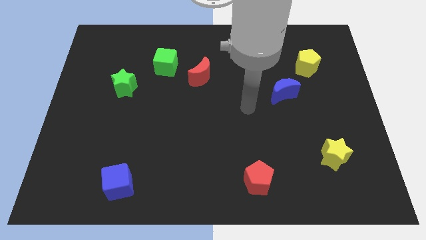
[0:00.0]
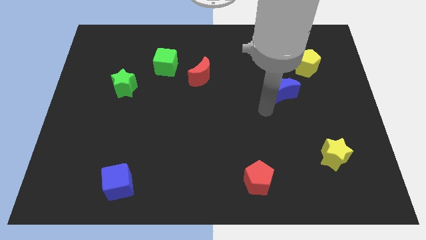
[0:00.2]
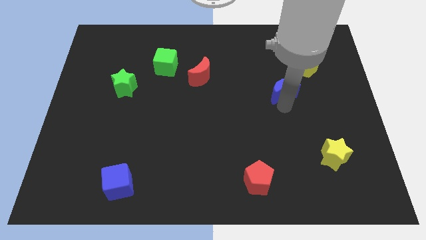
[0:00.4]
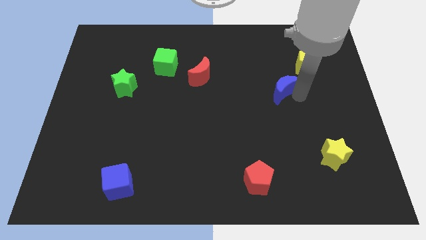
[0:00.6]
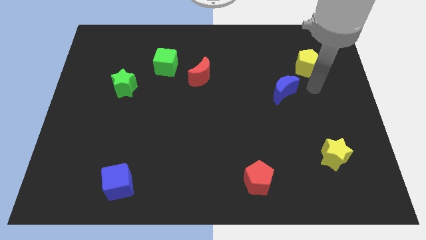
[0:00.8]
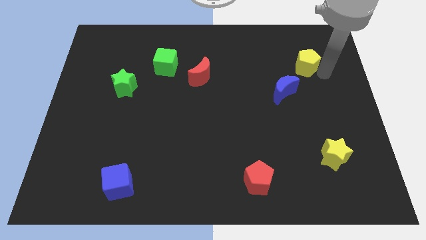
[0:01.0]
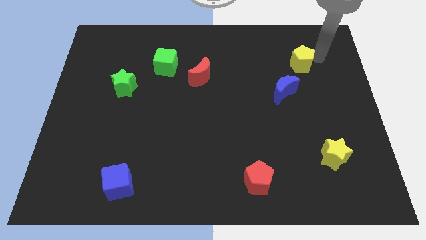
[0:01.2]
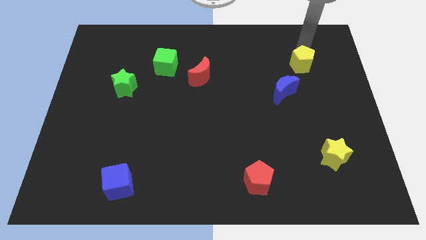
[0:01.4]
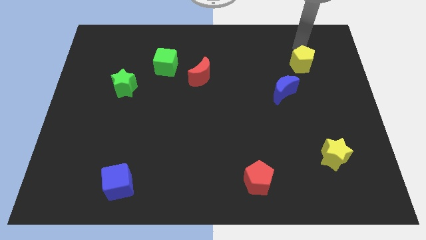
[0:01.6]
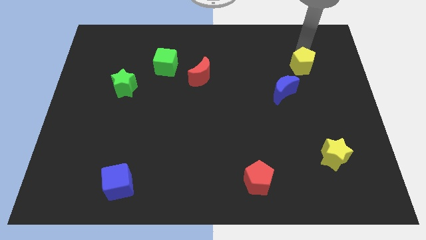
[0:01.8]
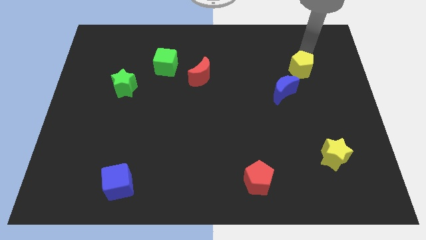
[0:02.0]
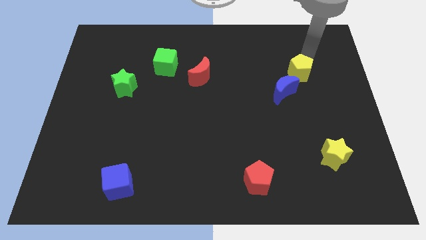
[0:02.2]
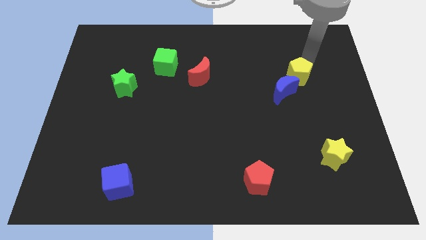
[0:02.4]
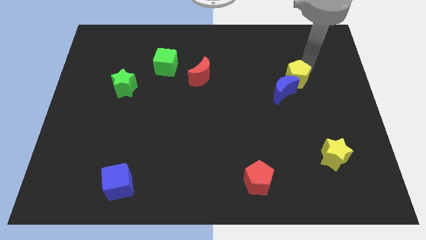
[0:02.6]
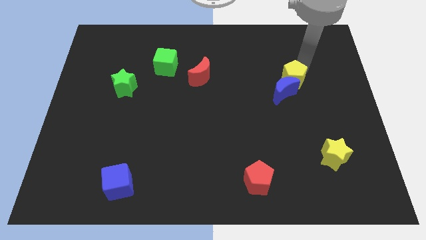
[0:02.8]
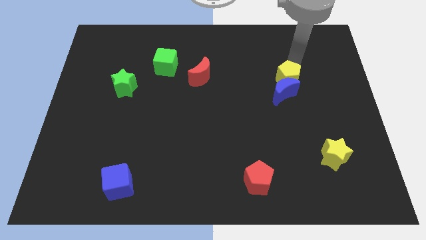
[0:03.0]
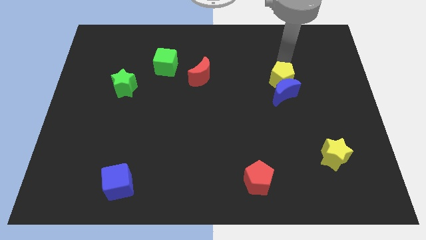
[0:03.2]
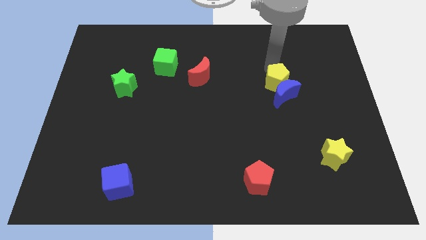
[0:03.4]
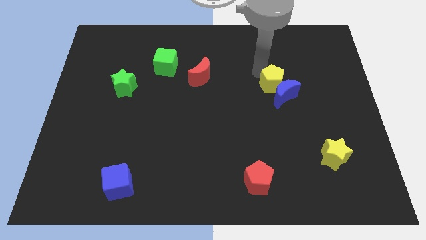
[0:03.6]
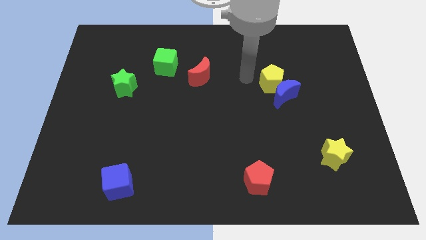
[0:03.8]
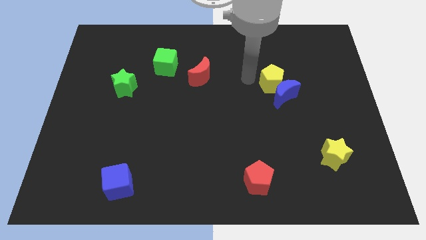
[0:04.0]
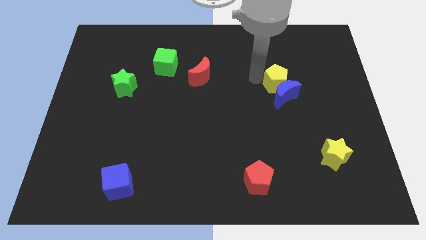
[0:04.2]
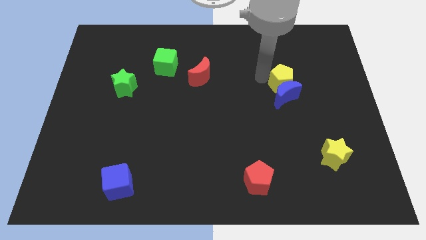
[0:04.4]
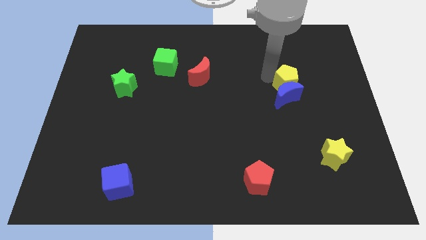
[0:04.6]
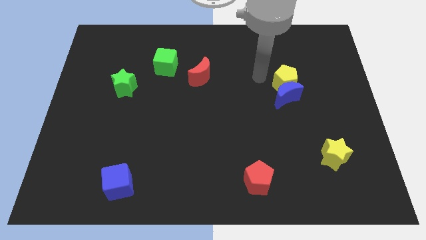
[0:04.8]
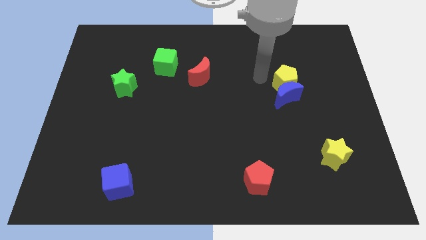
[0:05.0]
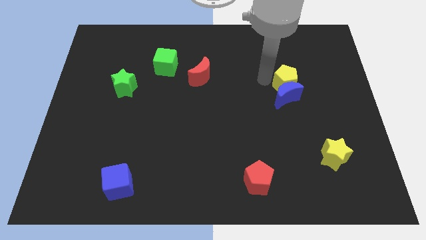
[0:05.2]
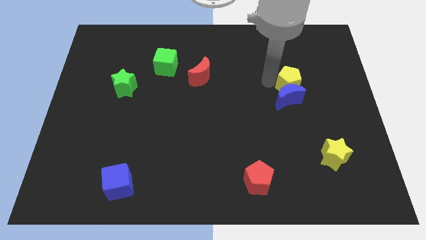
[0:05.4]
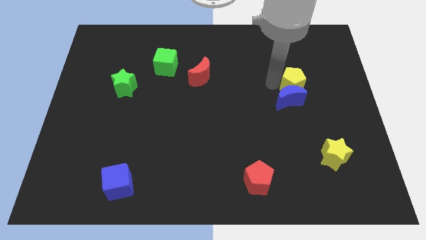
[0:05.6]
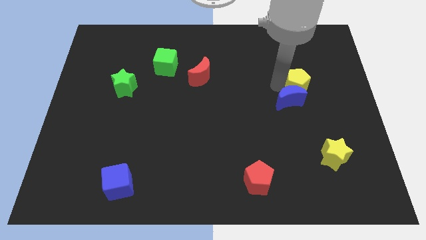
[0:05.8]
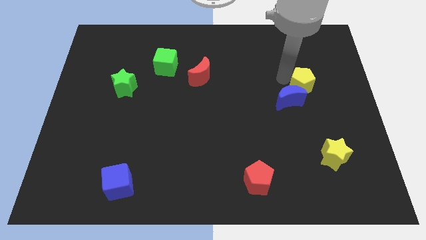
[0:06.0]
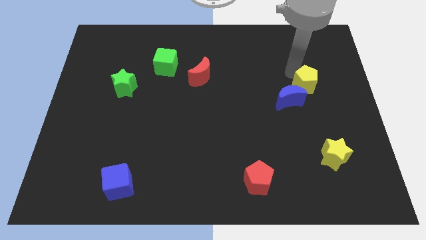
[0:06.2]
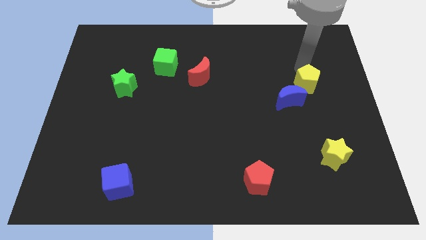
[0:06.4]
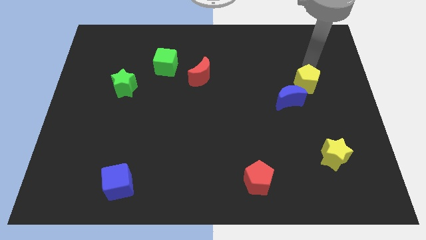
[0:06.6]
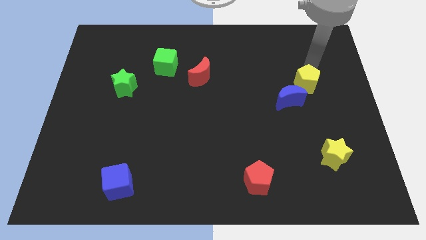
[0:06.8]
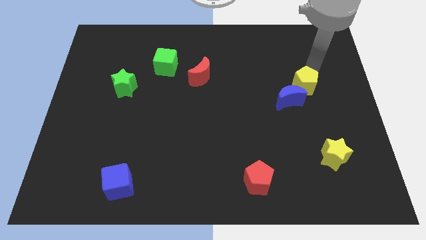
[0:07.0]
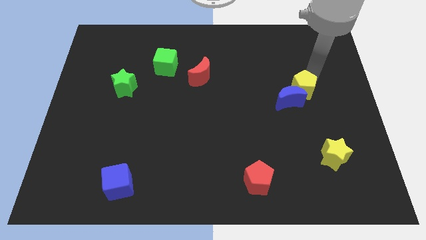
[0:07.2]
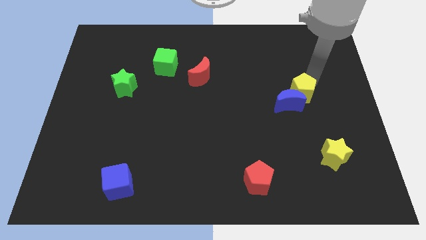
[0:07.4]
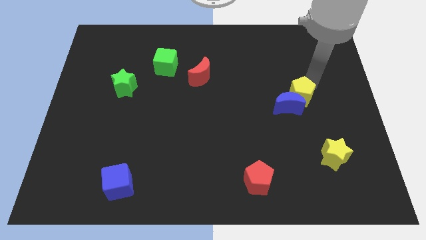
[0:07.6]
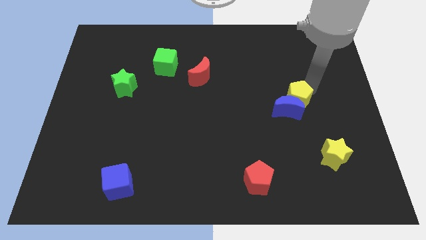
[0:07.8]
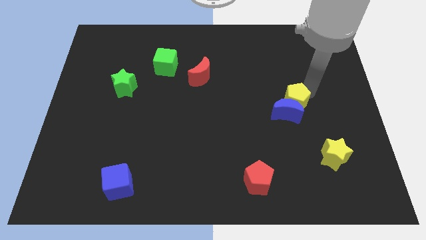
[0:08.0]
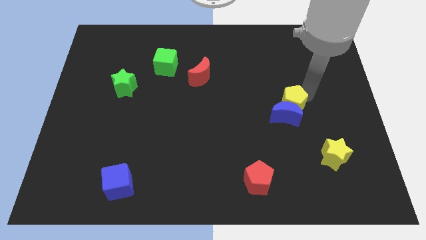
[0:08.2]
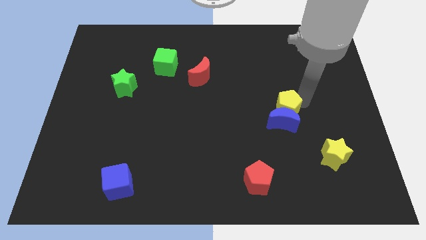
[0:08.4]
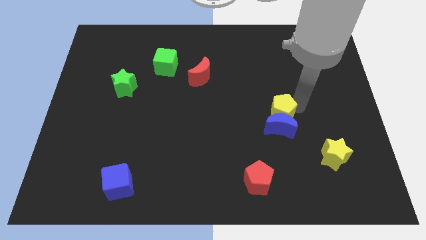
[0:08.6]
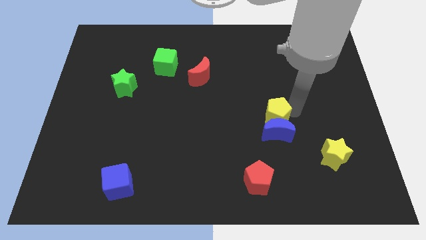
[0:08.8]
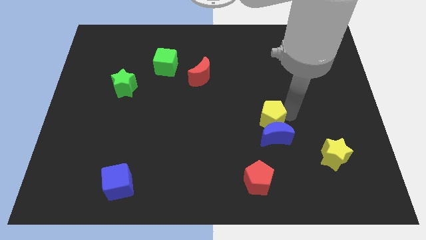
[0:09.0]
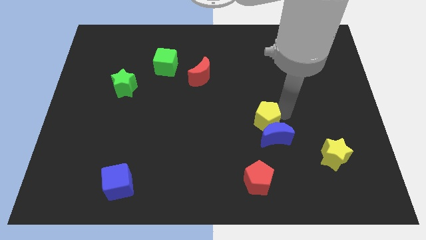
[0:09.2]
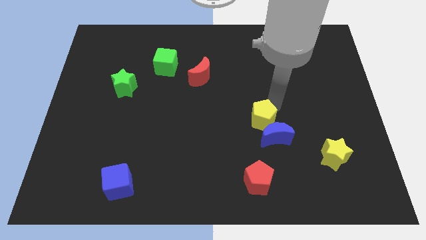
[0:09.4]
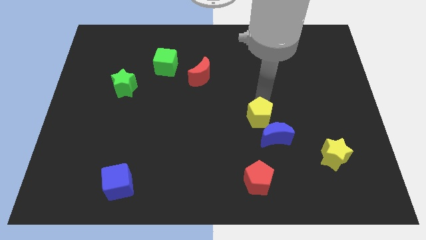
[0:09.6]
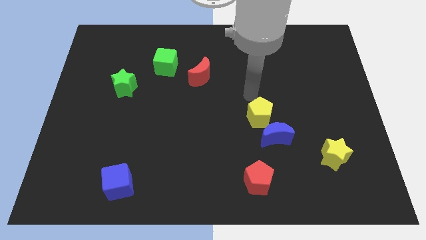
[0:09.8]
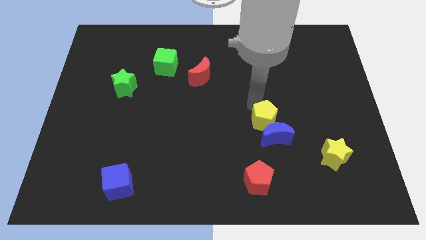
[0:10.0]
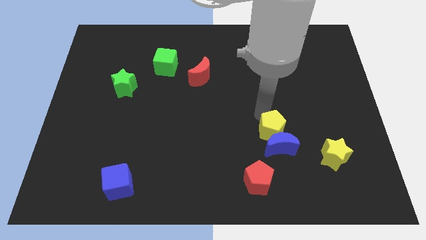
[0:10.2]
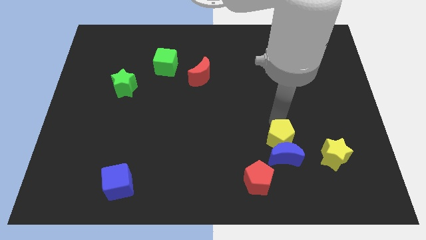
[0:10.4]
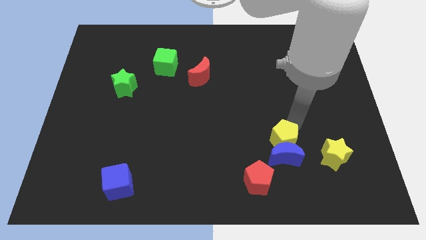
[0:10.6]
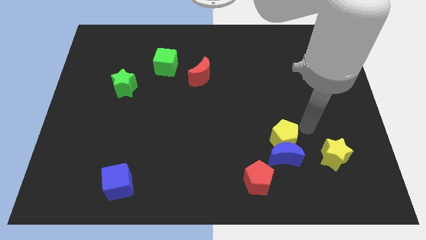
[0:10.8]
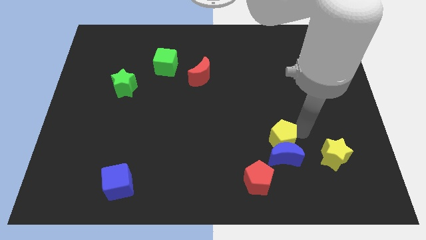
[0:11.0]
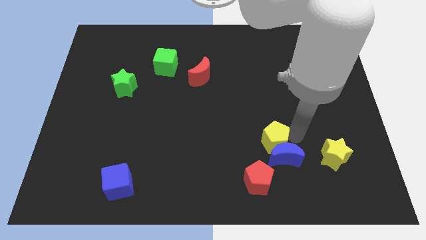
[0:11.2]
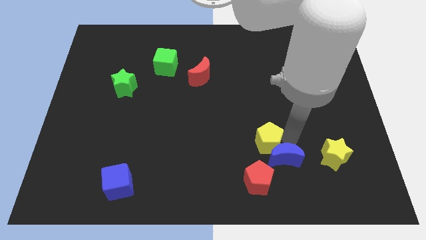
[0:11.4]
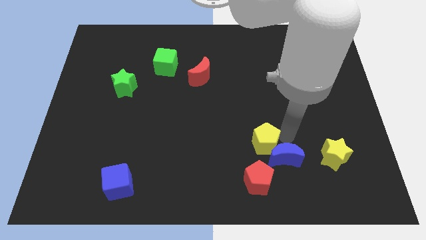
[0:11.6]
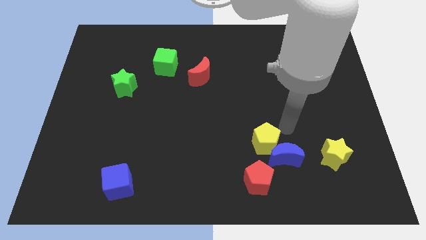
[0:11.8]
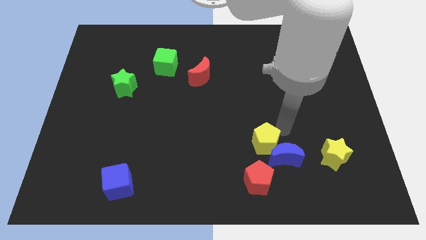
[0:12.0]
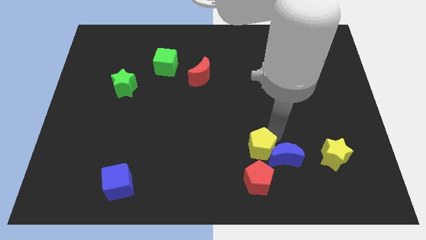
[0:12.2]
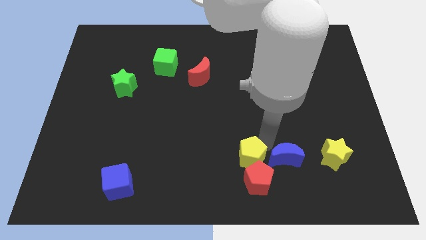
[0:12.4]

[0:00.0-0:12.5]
put the yellow pentagon to the top left side of the red pentagon
